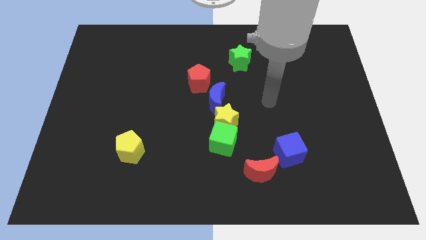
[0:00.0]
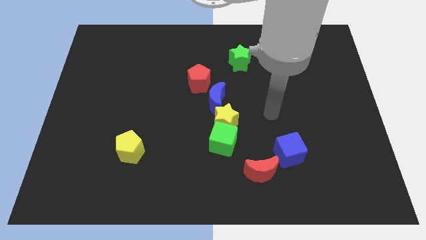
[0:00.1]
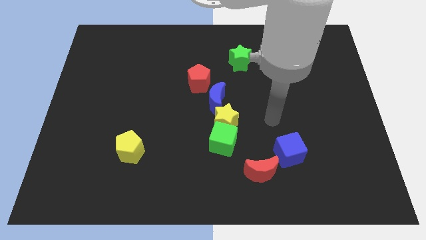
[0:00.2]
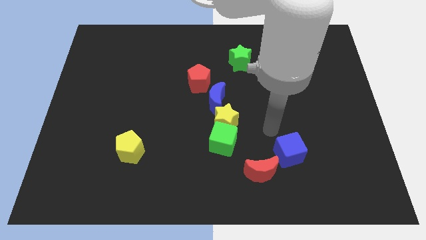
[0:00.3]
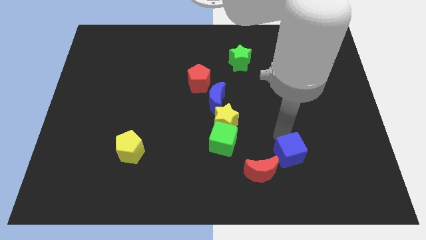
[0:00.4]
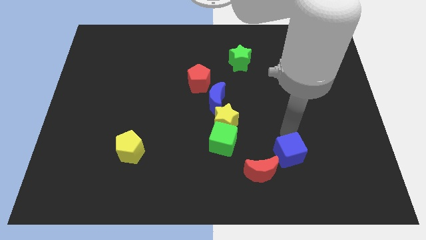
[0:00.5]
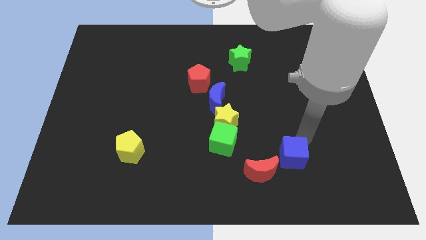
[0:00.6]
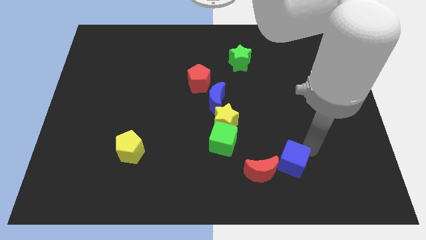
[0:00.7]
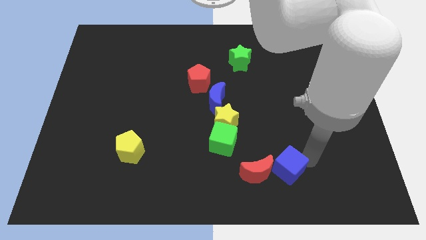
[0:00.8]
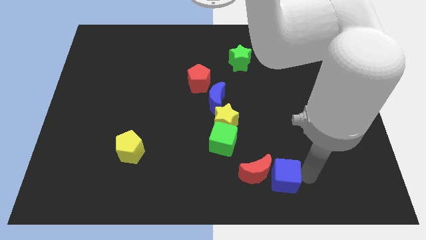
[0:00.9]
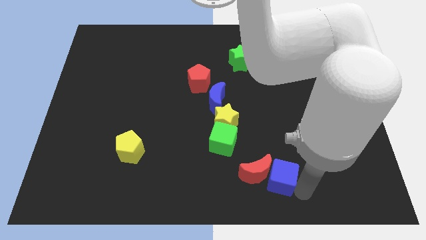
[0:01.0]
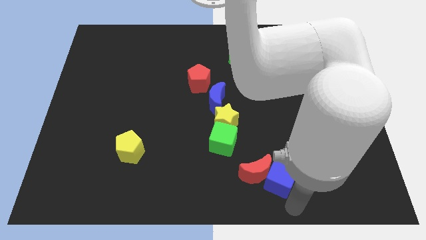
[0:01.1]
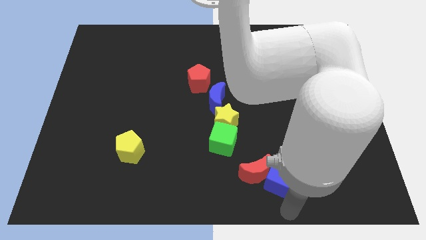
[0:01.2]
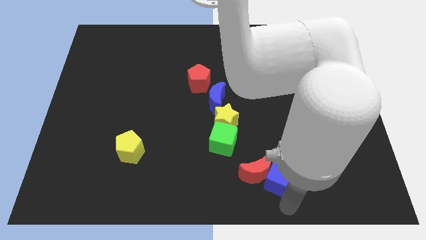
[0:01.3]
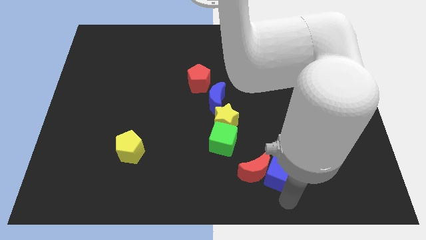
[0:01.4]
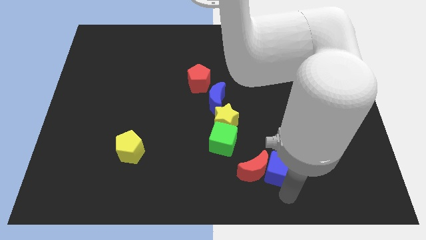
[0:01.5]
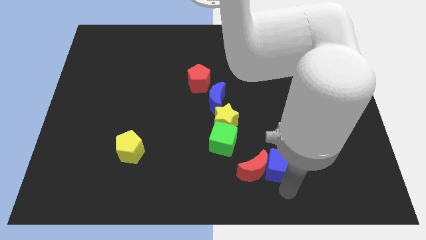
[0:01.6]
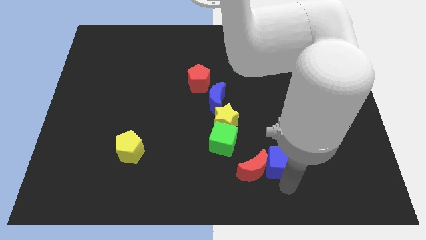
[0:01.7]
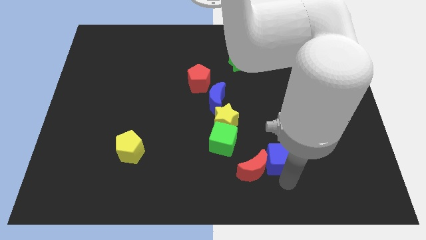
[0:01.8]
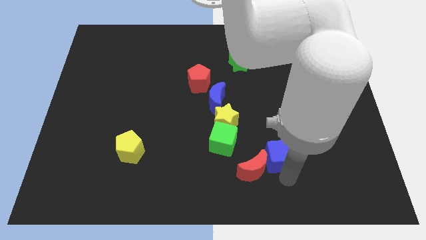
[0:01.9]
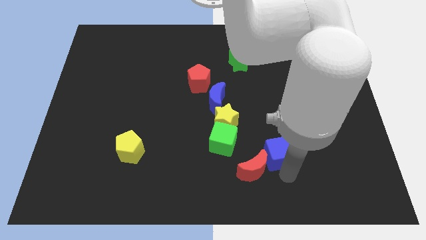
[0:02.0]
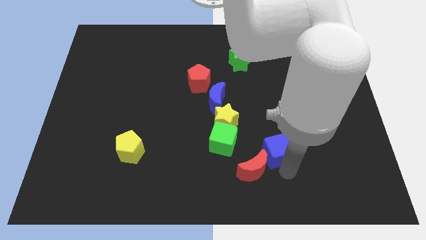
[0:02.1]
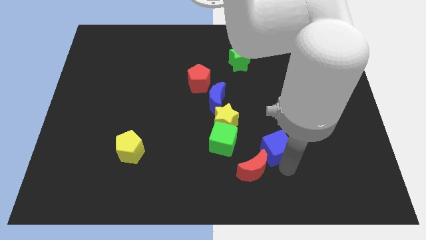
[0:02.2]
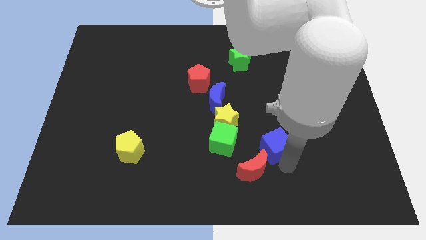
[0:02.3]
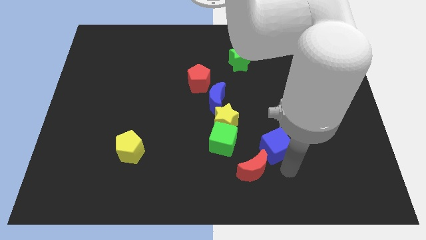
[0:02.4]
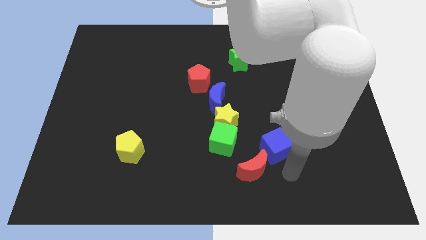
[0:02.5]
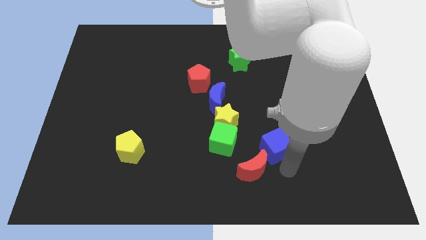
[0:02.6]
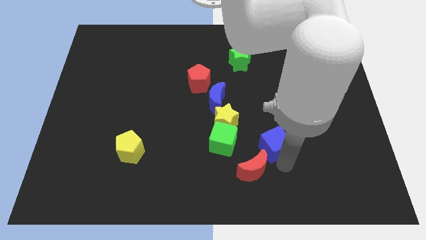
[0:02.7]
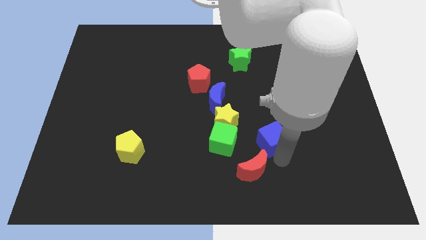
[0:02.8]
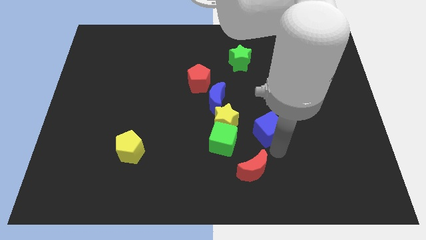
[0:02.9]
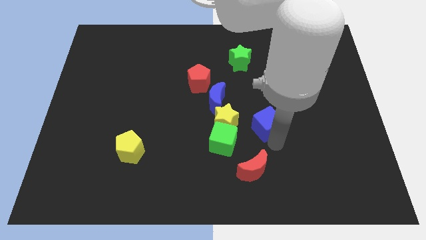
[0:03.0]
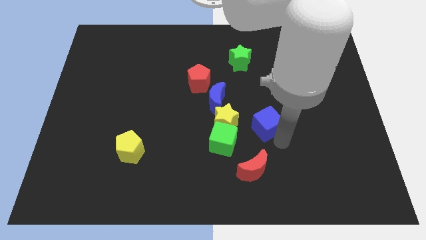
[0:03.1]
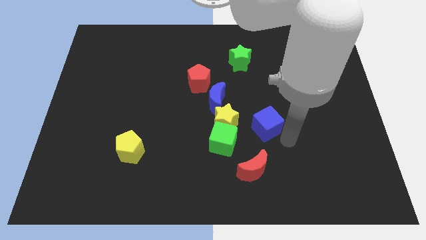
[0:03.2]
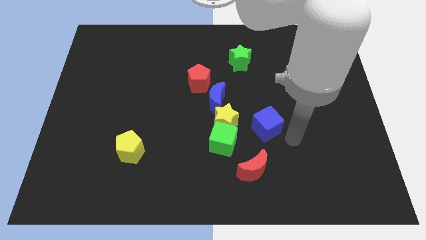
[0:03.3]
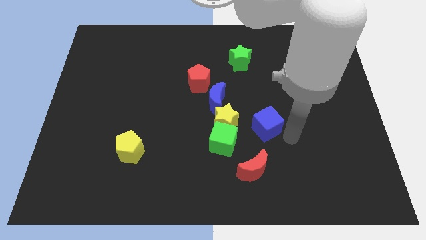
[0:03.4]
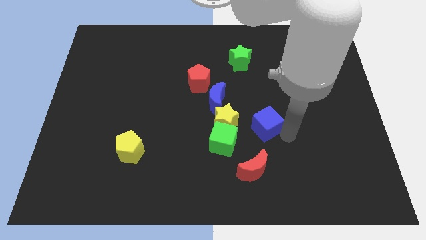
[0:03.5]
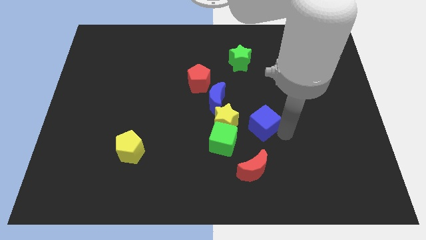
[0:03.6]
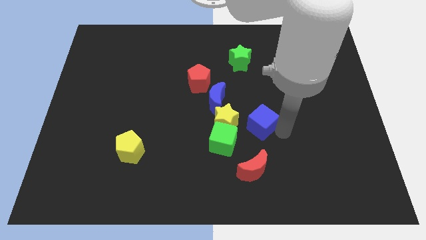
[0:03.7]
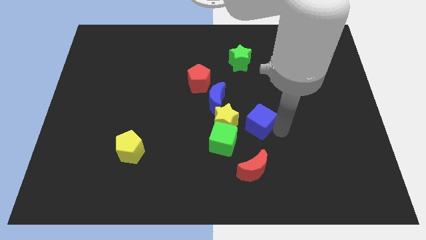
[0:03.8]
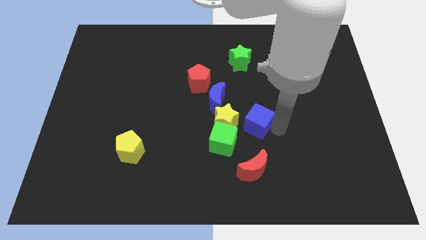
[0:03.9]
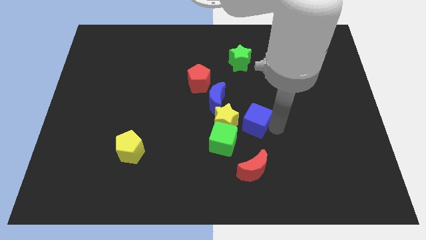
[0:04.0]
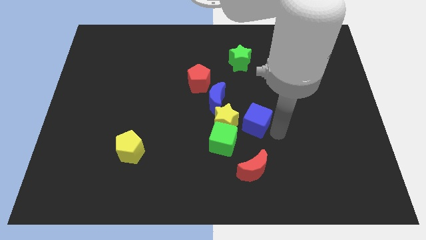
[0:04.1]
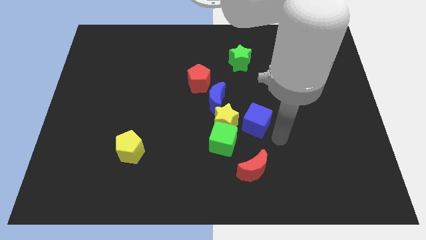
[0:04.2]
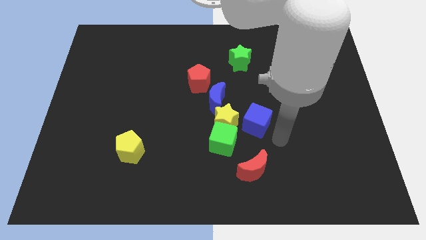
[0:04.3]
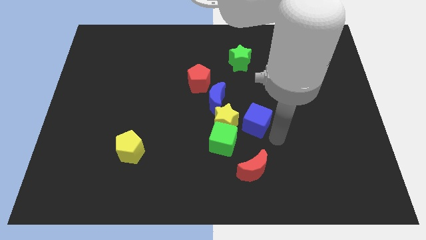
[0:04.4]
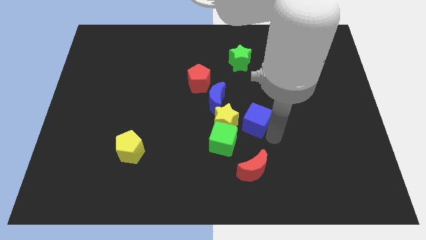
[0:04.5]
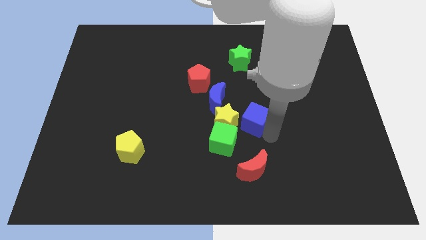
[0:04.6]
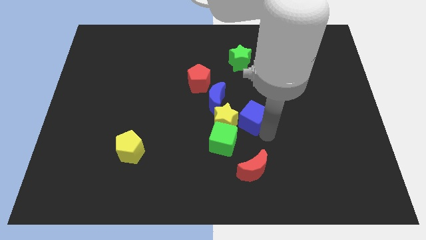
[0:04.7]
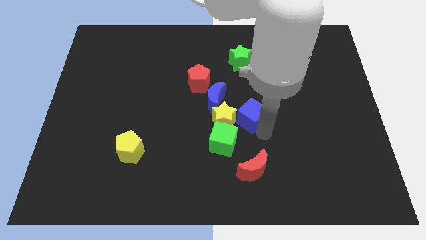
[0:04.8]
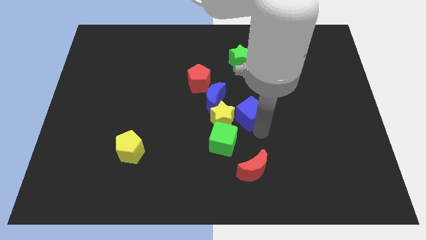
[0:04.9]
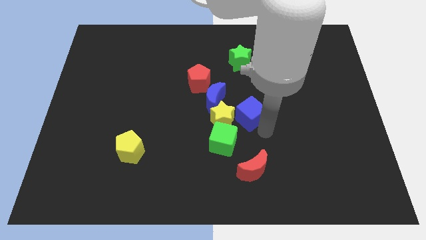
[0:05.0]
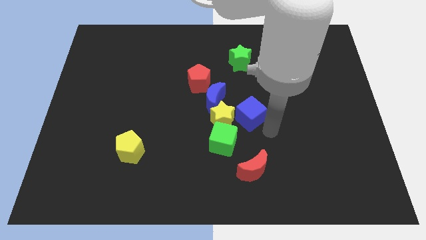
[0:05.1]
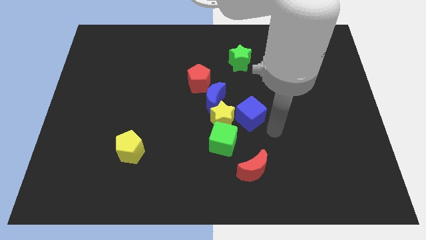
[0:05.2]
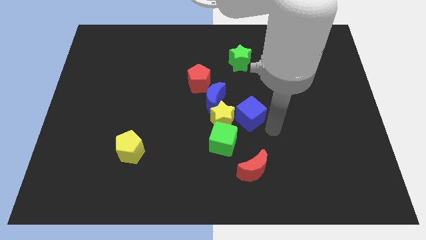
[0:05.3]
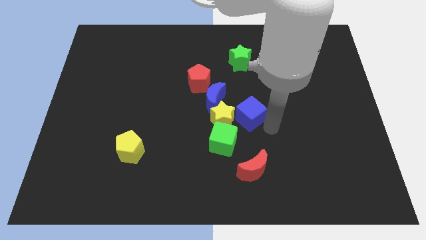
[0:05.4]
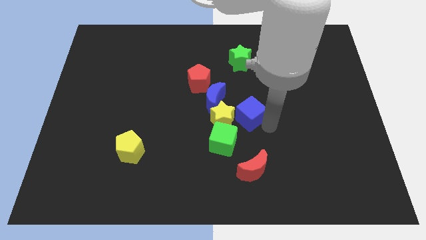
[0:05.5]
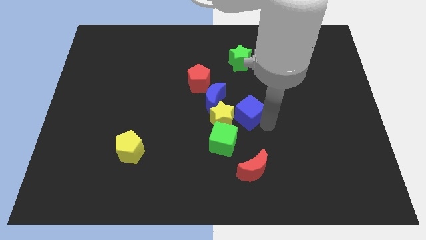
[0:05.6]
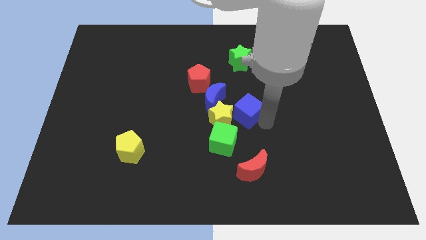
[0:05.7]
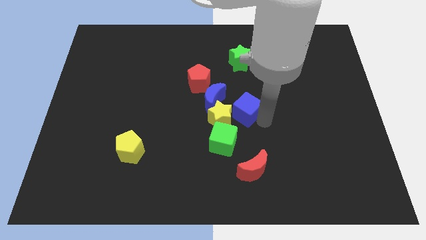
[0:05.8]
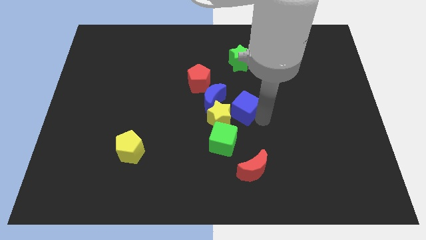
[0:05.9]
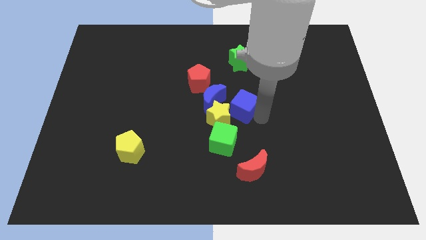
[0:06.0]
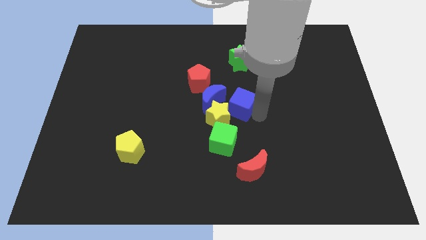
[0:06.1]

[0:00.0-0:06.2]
push the blue cube to the bottom right side of the red pentagon

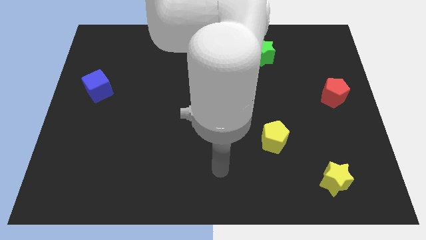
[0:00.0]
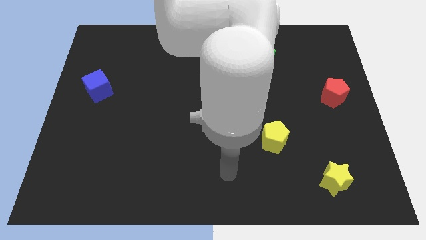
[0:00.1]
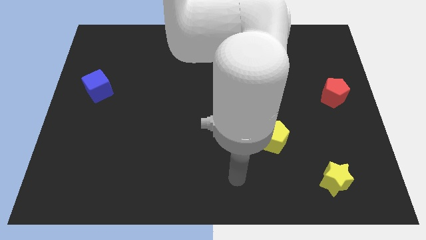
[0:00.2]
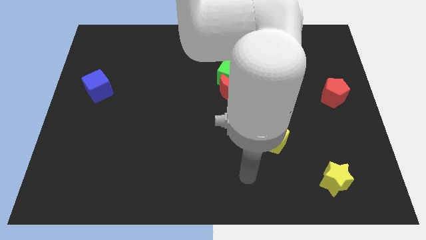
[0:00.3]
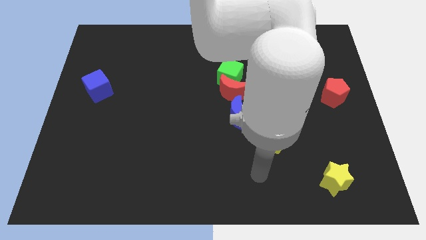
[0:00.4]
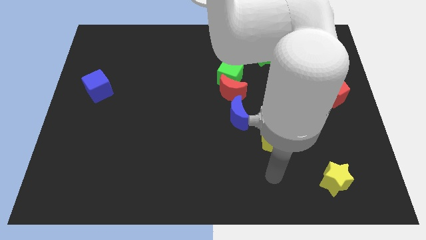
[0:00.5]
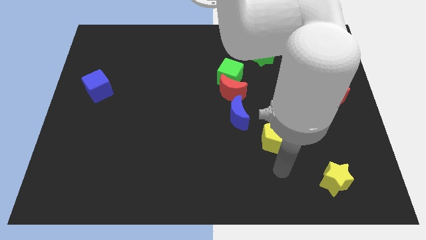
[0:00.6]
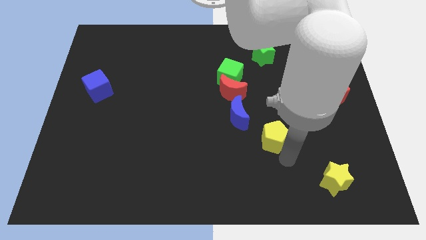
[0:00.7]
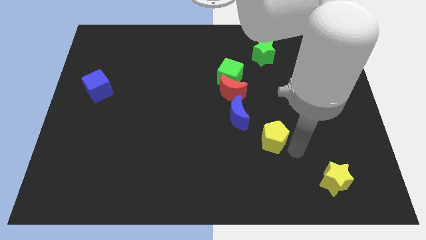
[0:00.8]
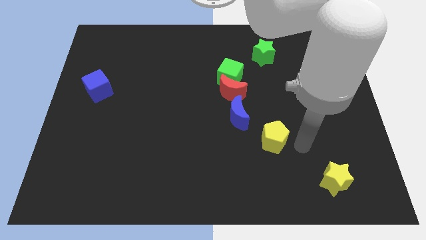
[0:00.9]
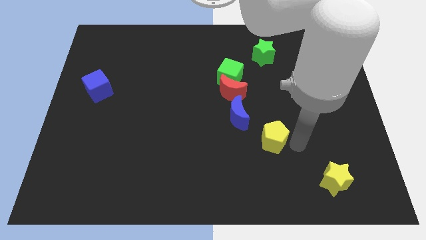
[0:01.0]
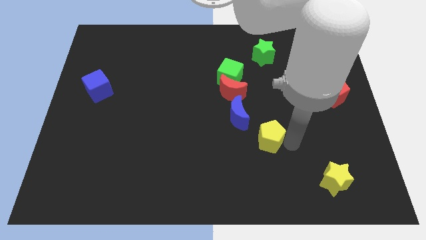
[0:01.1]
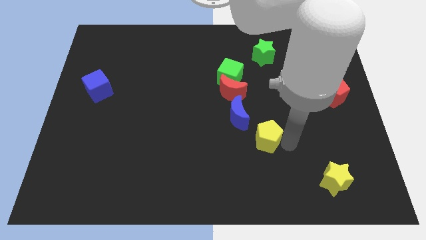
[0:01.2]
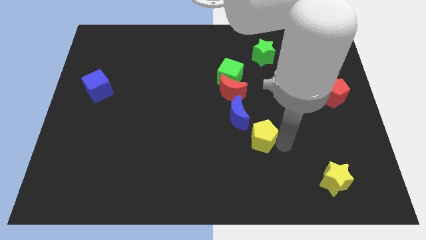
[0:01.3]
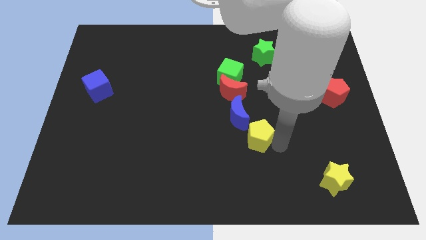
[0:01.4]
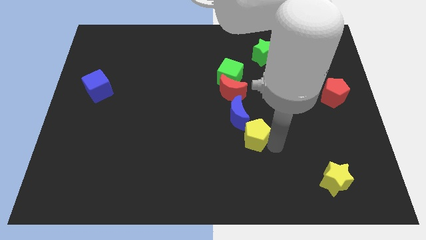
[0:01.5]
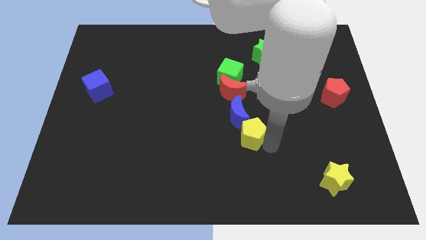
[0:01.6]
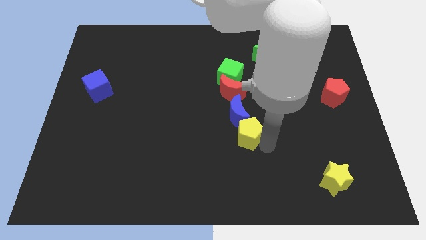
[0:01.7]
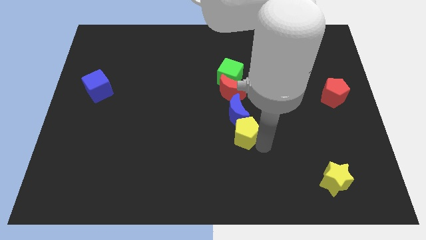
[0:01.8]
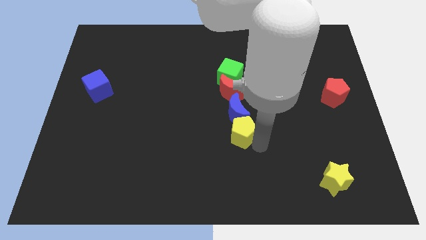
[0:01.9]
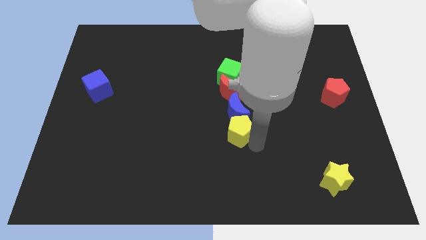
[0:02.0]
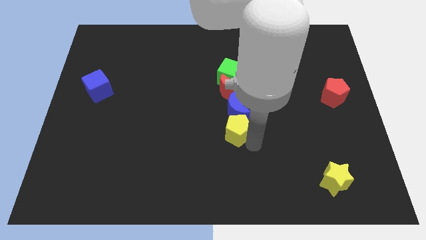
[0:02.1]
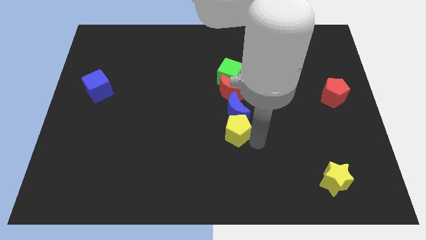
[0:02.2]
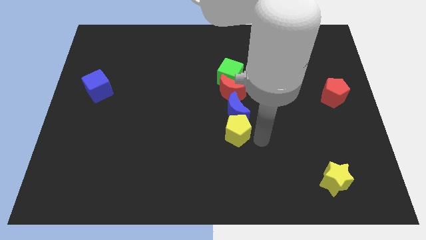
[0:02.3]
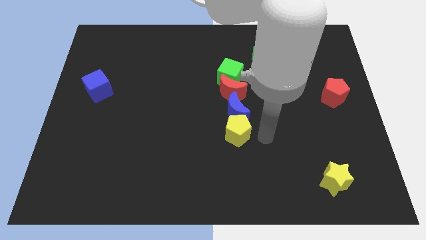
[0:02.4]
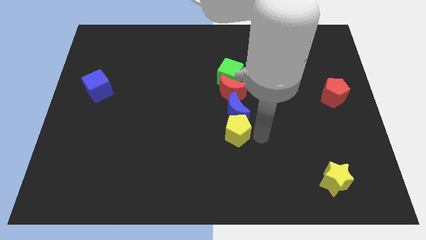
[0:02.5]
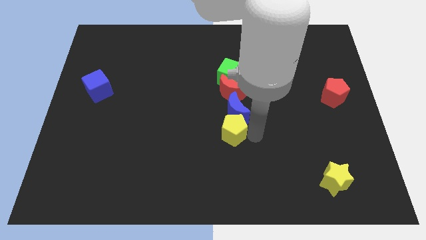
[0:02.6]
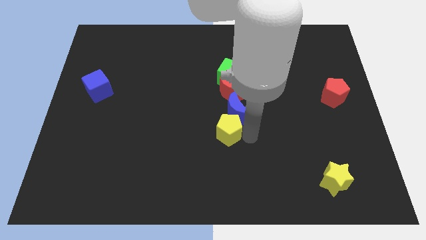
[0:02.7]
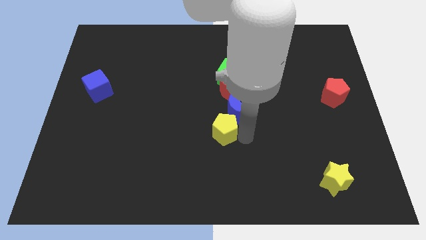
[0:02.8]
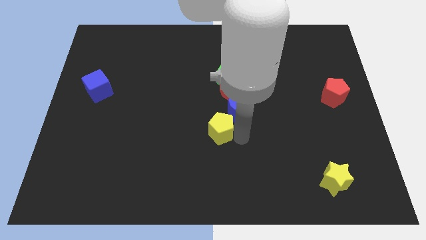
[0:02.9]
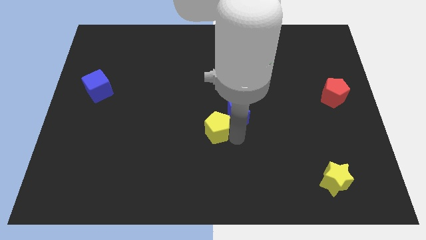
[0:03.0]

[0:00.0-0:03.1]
move the yellow pentagon left of the blue moon
